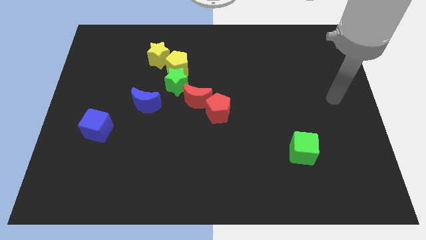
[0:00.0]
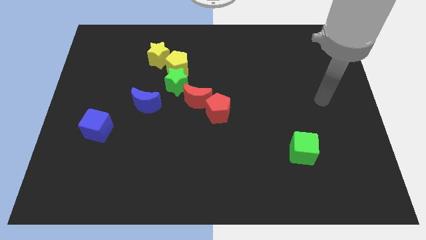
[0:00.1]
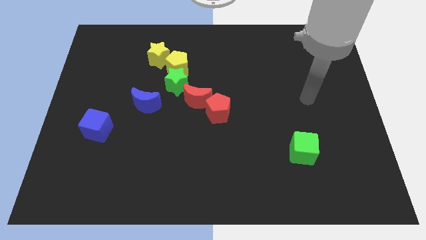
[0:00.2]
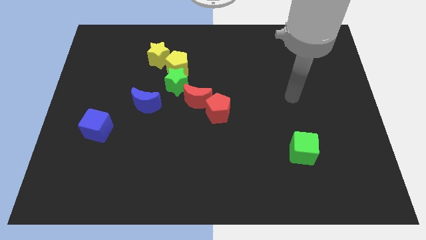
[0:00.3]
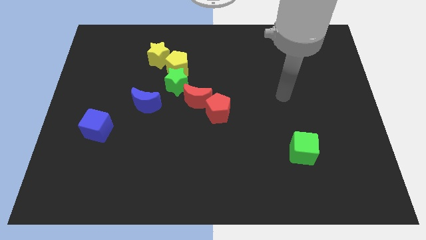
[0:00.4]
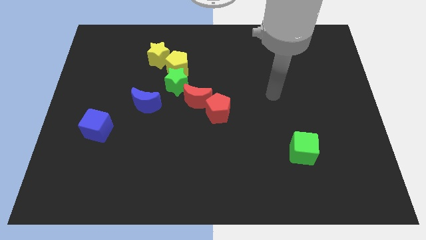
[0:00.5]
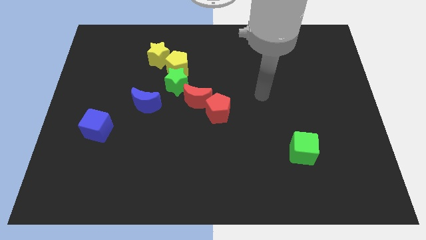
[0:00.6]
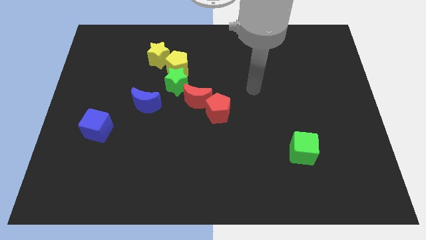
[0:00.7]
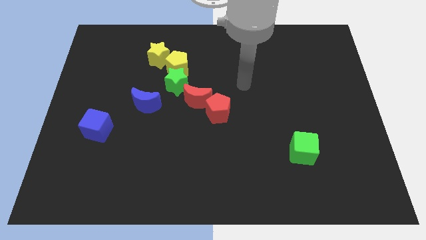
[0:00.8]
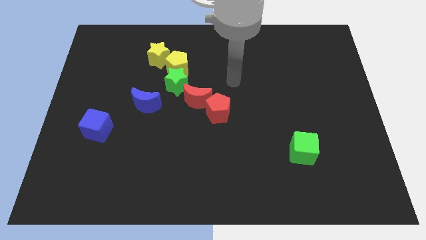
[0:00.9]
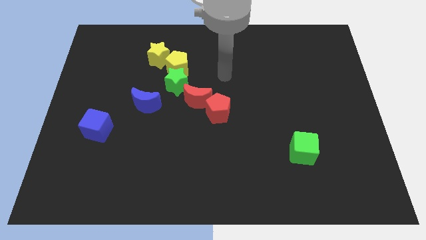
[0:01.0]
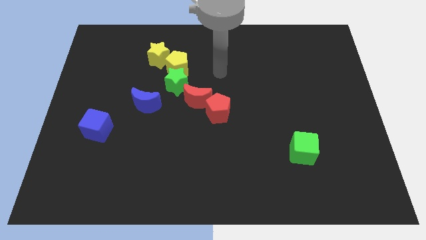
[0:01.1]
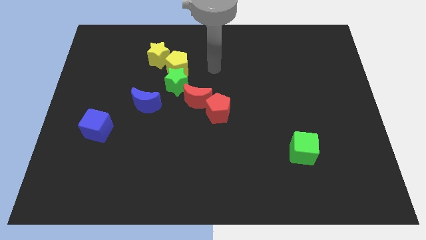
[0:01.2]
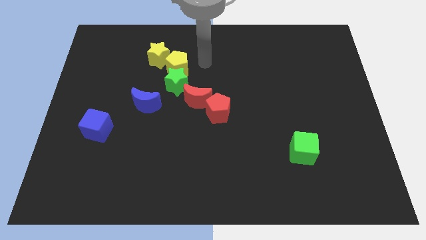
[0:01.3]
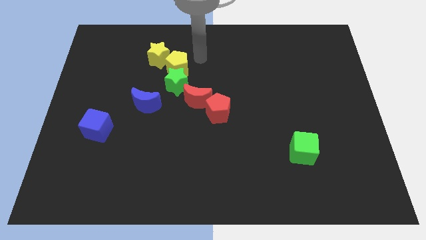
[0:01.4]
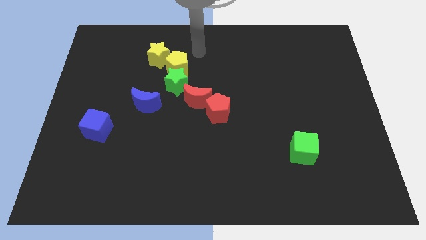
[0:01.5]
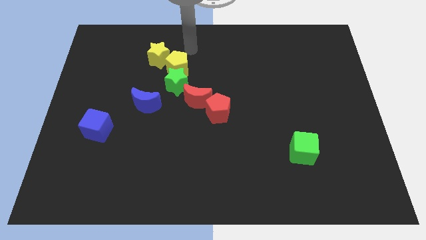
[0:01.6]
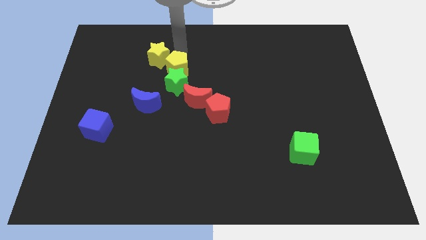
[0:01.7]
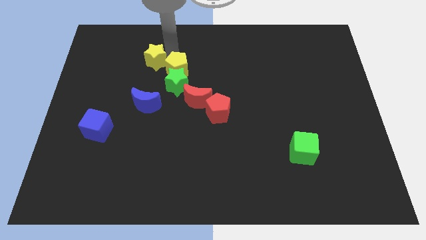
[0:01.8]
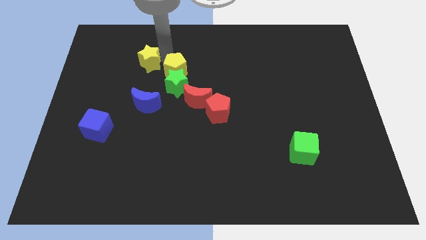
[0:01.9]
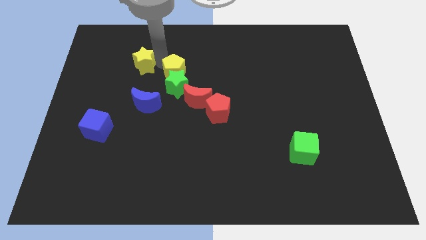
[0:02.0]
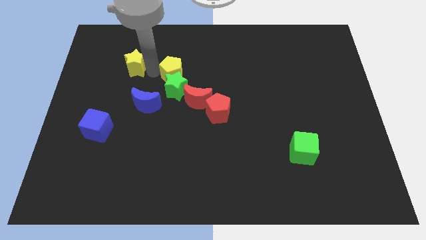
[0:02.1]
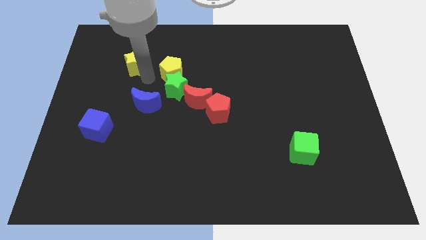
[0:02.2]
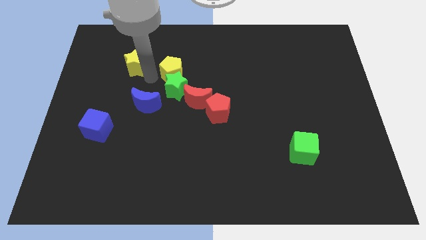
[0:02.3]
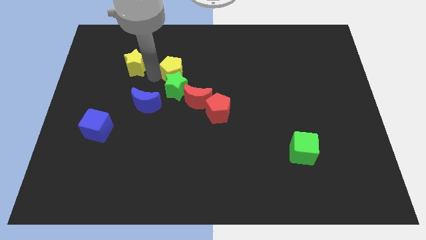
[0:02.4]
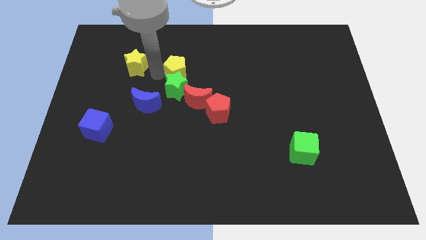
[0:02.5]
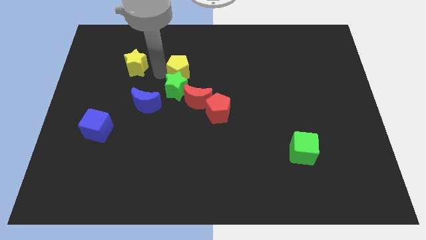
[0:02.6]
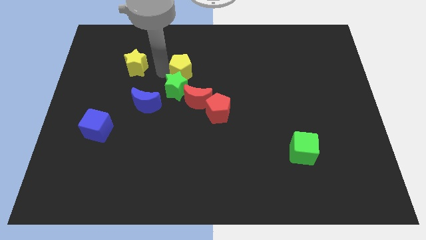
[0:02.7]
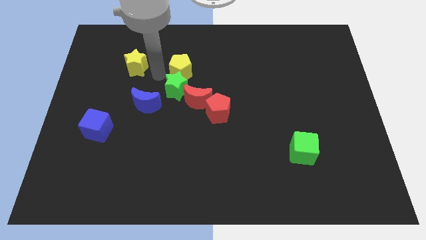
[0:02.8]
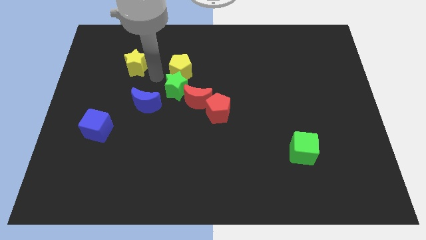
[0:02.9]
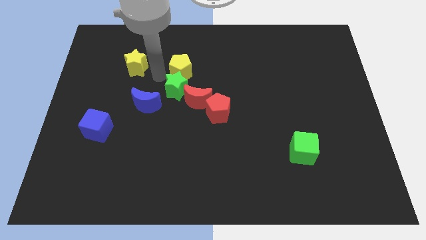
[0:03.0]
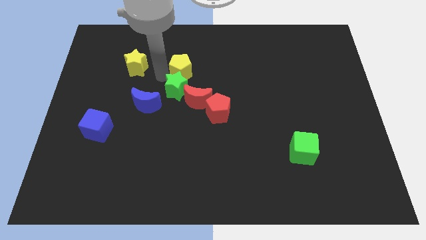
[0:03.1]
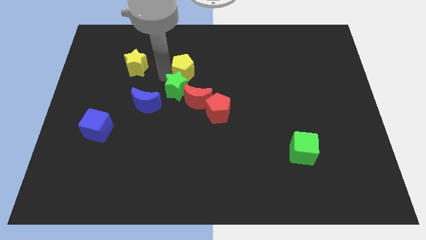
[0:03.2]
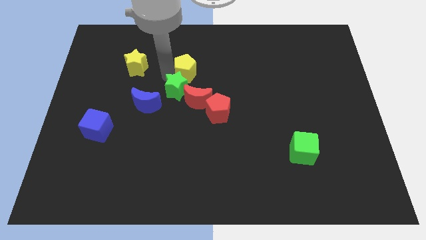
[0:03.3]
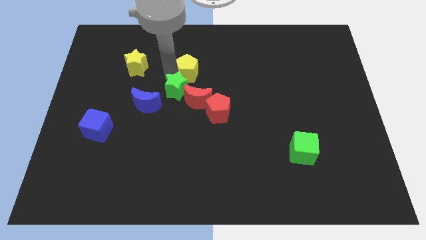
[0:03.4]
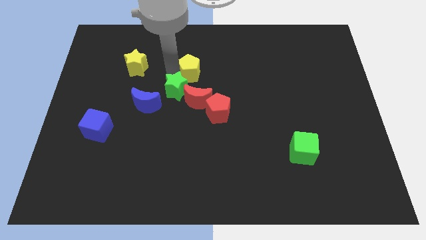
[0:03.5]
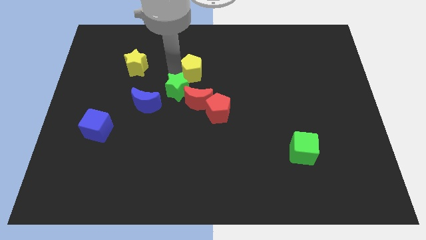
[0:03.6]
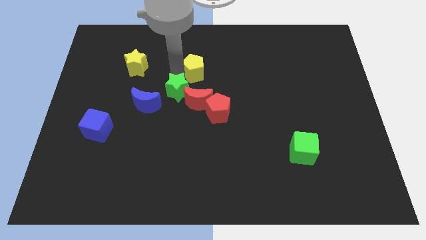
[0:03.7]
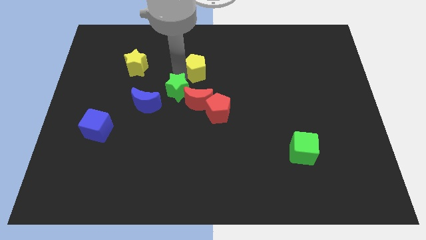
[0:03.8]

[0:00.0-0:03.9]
separate the yellow pentagon from the green star and yellow star

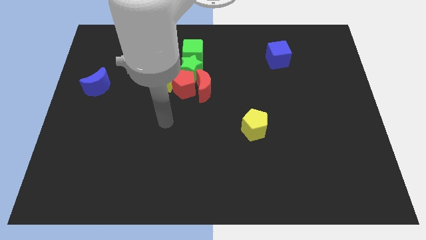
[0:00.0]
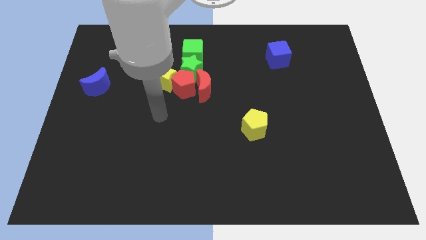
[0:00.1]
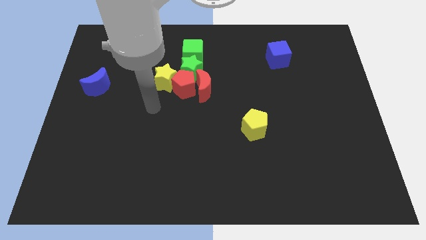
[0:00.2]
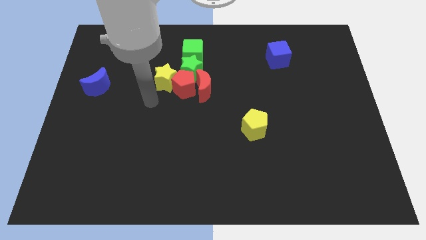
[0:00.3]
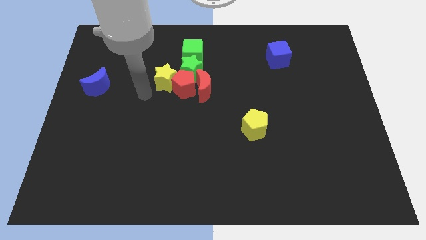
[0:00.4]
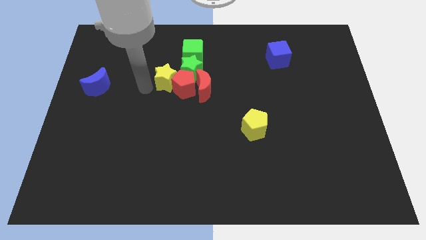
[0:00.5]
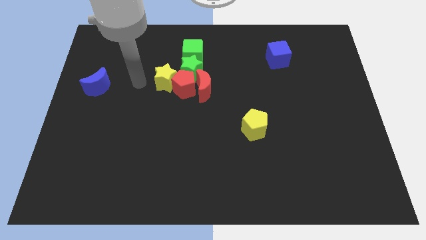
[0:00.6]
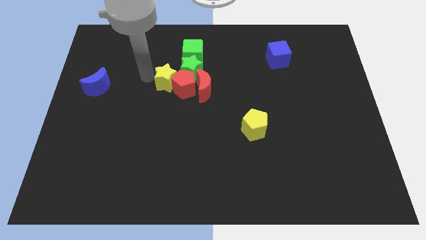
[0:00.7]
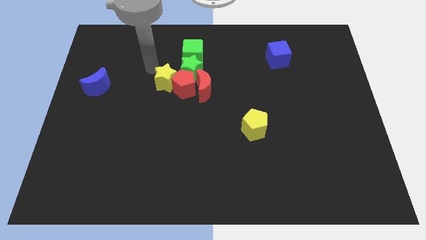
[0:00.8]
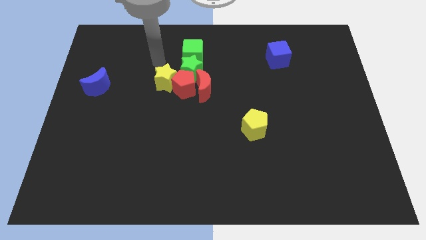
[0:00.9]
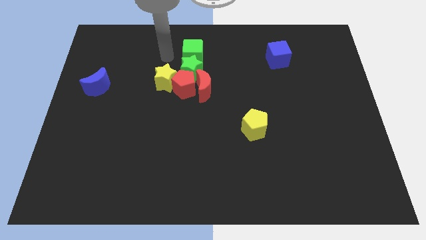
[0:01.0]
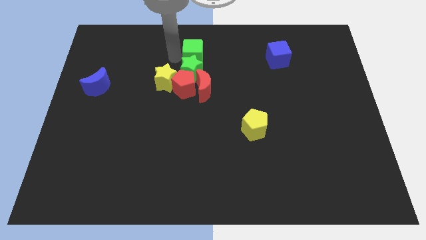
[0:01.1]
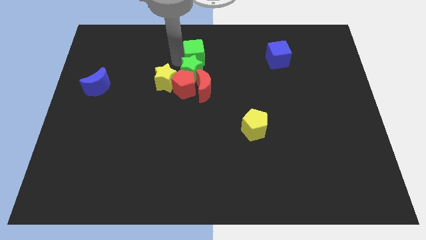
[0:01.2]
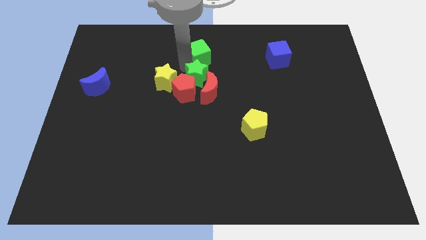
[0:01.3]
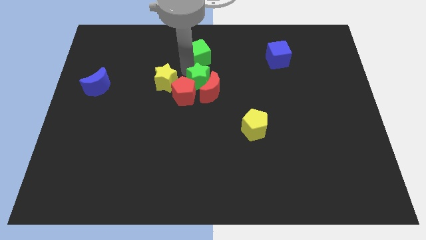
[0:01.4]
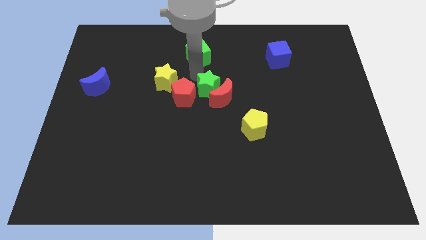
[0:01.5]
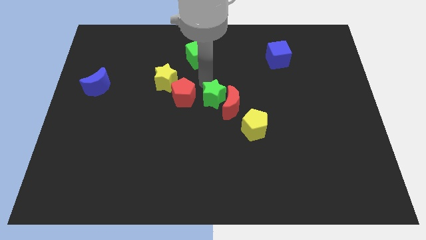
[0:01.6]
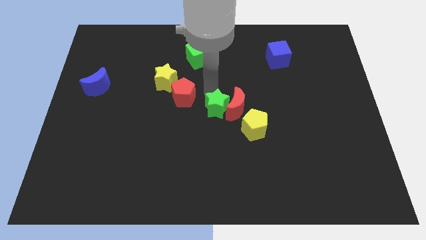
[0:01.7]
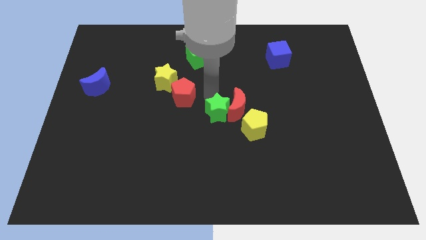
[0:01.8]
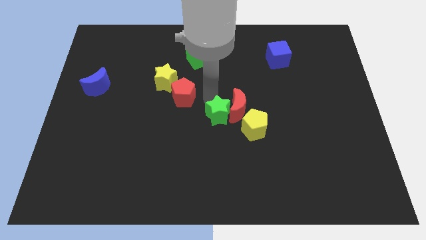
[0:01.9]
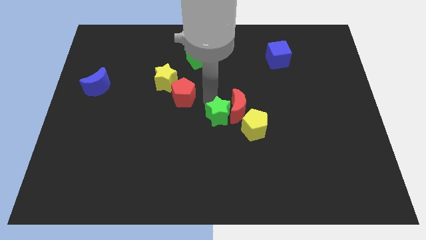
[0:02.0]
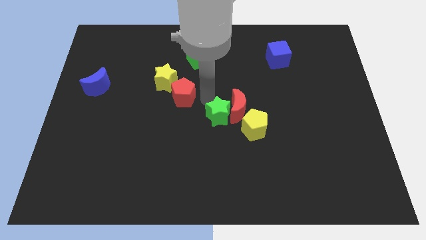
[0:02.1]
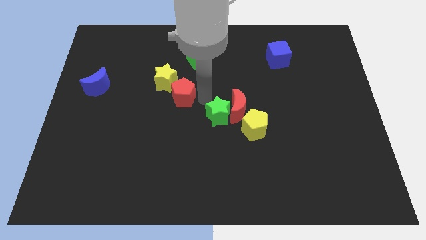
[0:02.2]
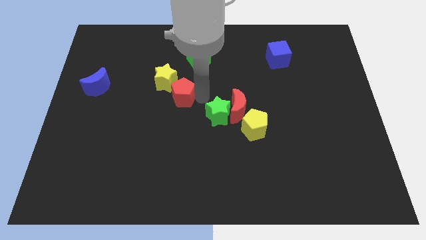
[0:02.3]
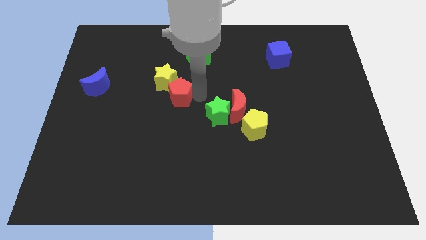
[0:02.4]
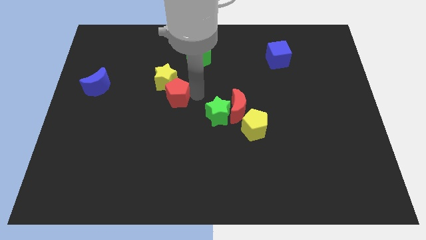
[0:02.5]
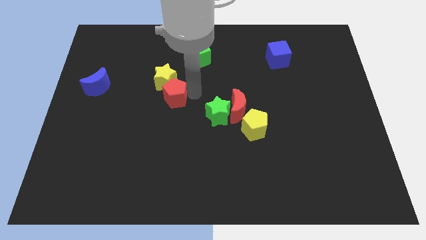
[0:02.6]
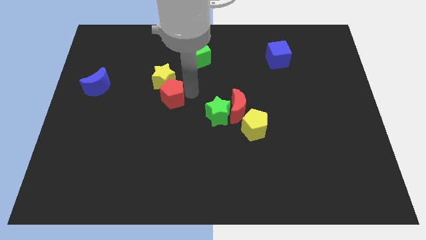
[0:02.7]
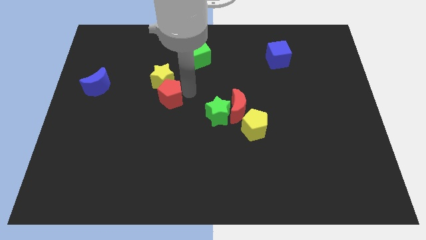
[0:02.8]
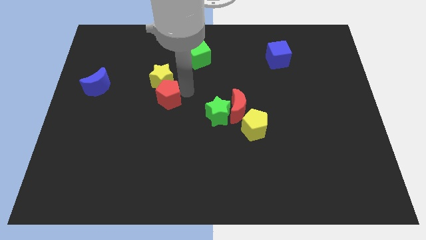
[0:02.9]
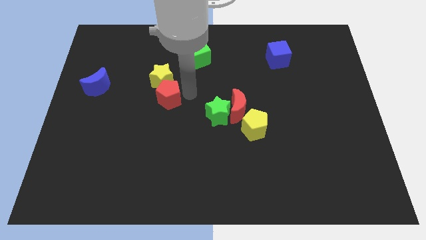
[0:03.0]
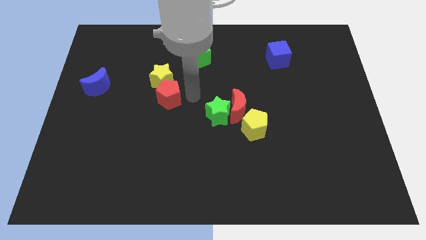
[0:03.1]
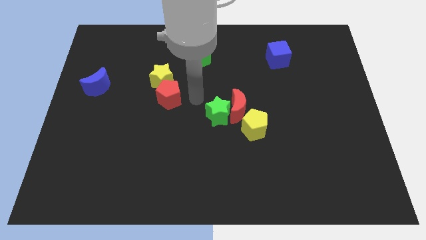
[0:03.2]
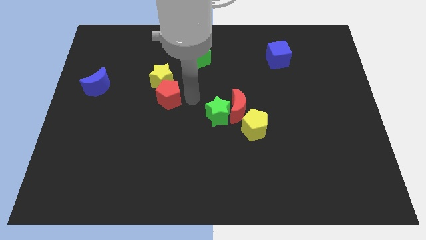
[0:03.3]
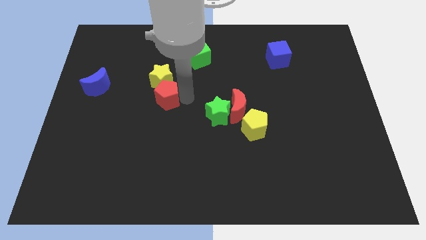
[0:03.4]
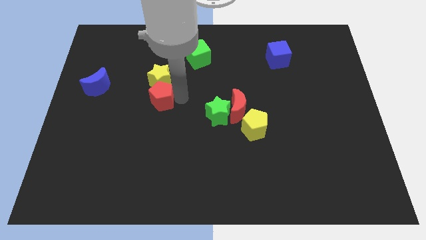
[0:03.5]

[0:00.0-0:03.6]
separate the red pentagon from the group

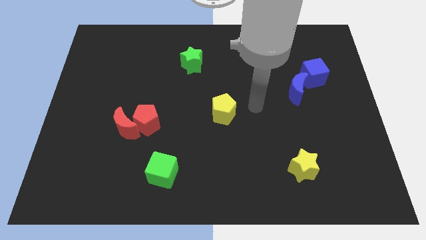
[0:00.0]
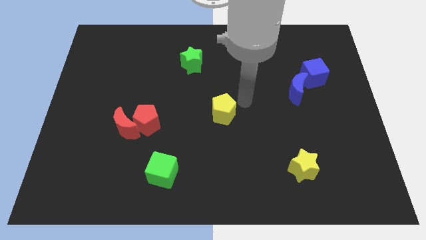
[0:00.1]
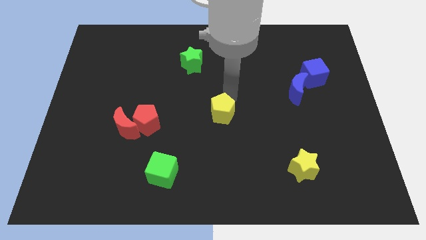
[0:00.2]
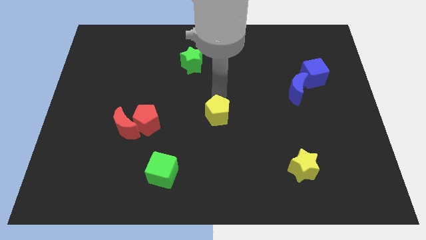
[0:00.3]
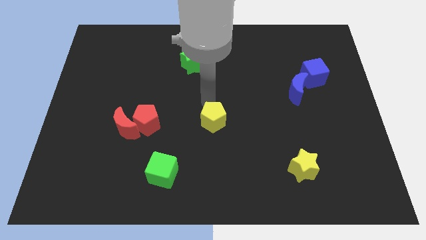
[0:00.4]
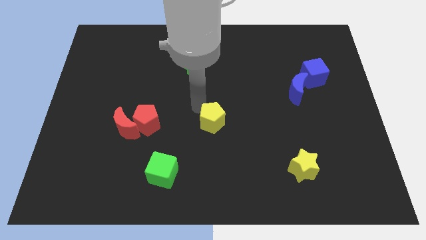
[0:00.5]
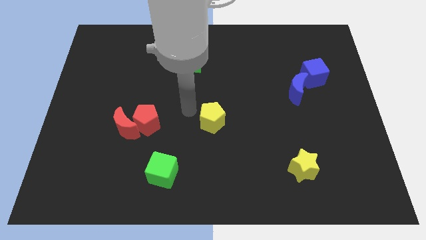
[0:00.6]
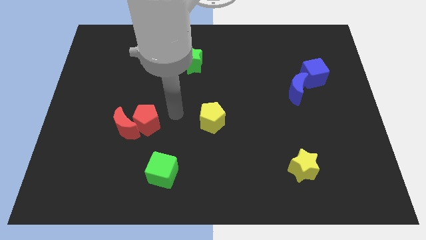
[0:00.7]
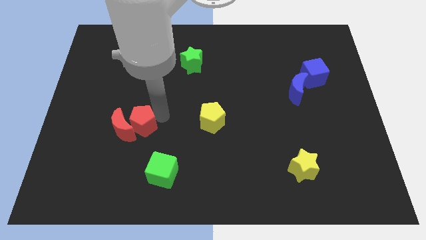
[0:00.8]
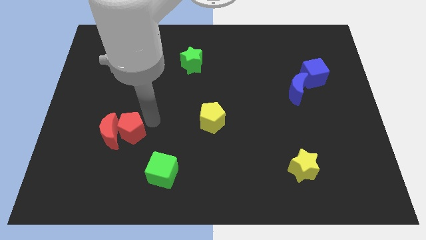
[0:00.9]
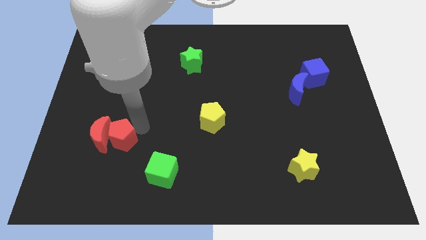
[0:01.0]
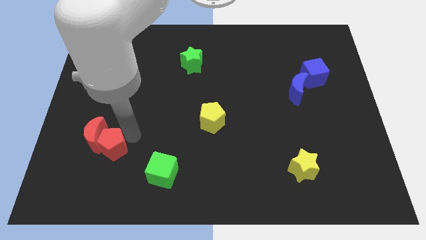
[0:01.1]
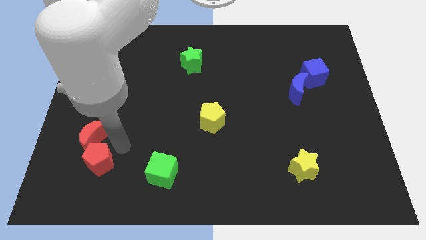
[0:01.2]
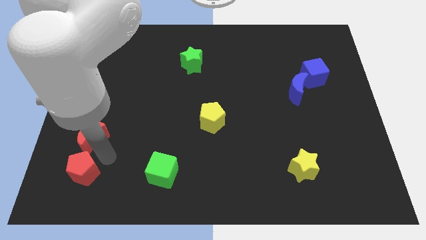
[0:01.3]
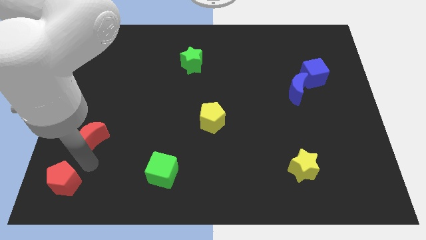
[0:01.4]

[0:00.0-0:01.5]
pull the red moon apart from the red pentagon

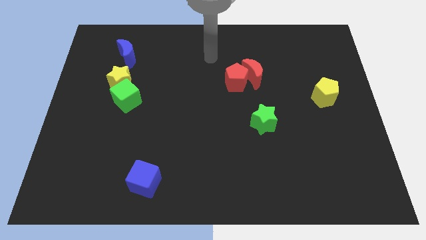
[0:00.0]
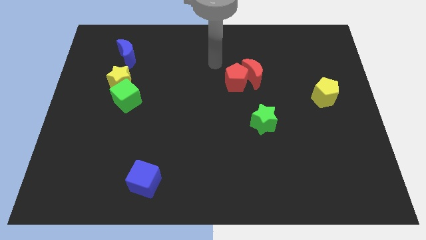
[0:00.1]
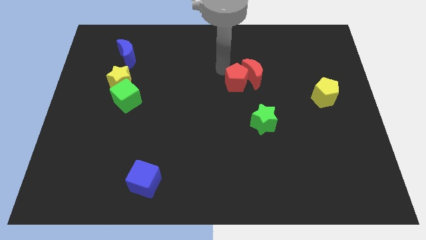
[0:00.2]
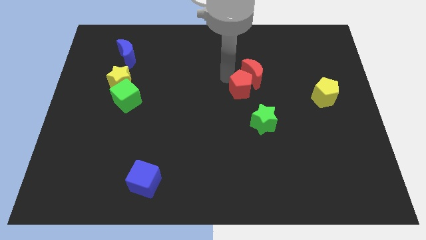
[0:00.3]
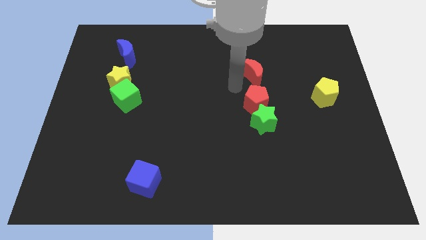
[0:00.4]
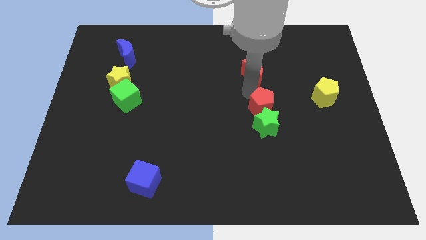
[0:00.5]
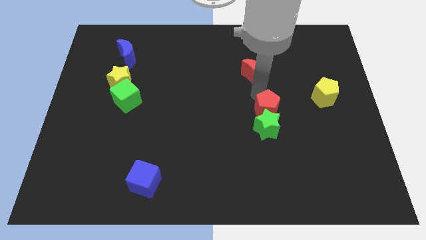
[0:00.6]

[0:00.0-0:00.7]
separate the red moon from the red pentagon
